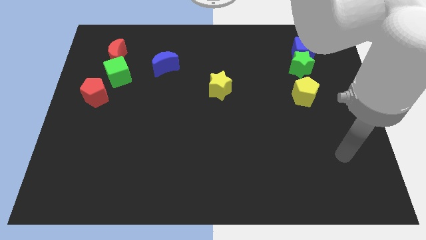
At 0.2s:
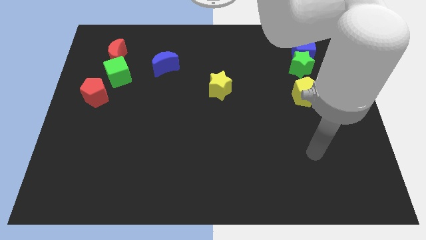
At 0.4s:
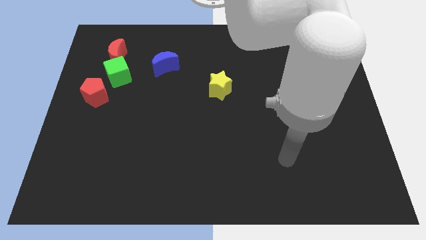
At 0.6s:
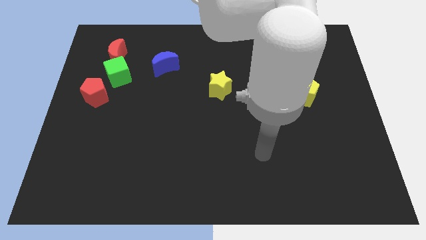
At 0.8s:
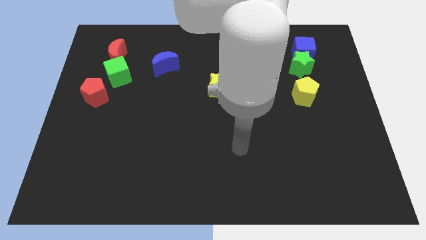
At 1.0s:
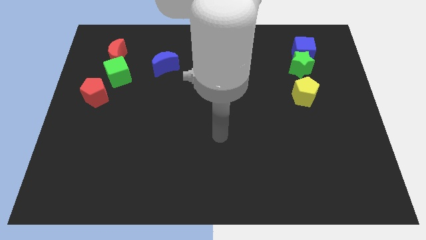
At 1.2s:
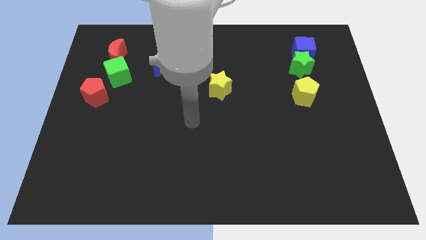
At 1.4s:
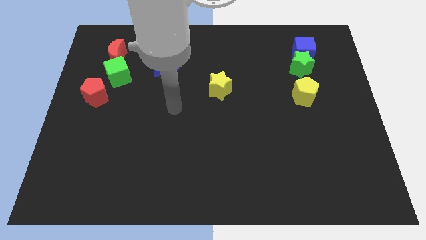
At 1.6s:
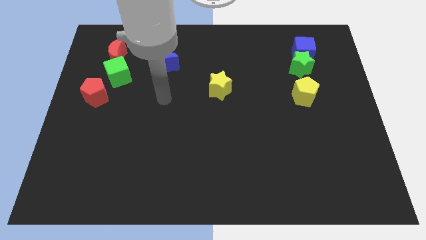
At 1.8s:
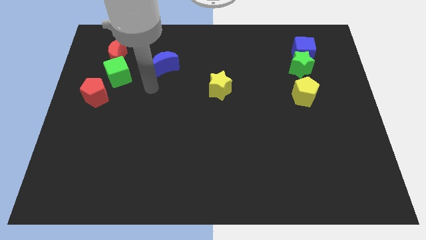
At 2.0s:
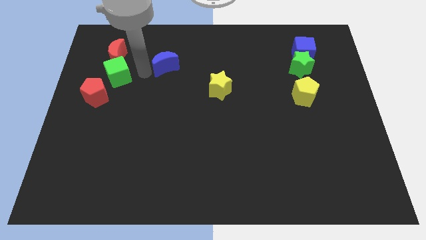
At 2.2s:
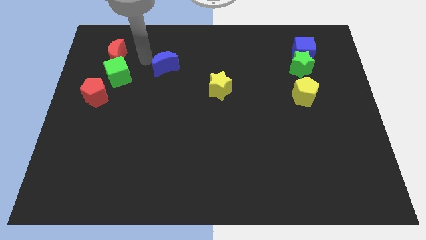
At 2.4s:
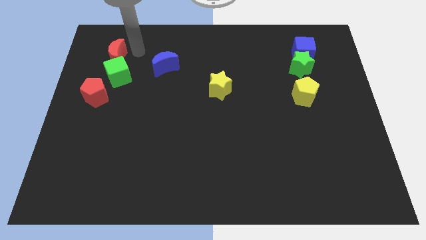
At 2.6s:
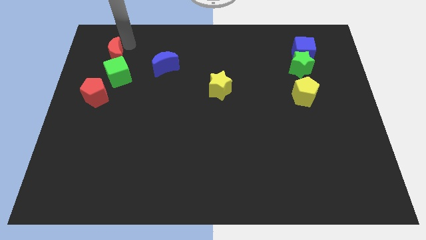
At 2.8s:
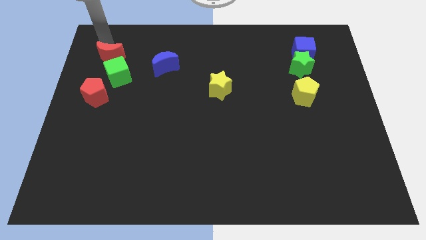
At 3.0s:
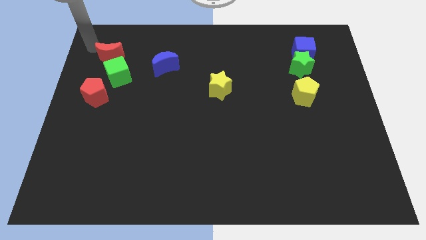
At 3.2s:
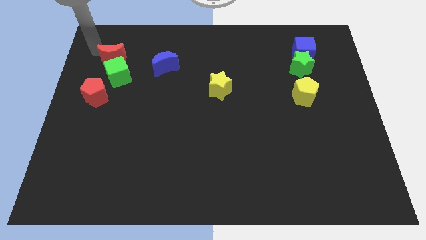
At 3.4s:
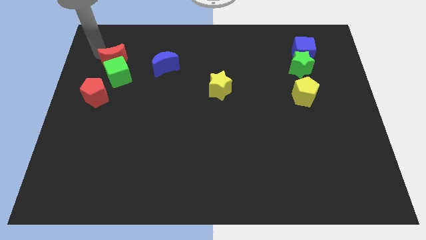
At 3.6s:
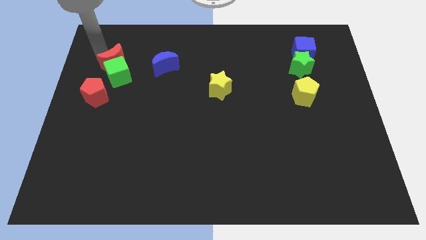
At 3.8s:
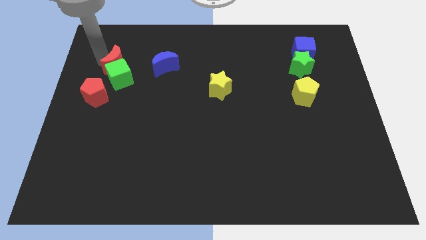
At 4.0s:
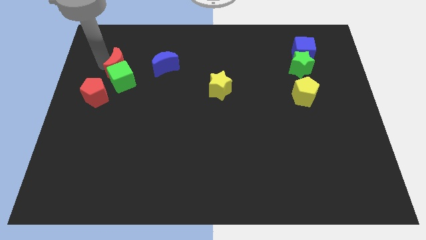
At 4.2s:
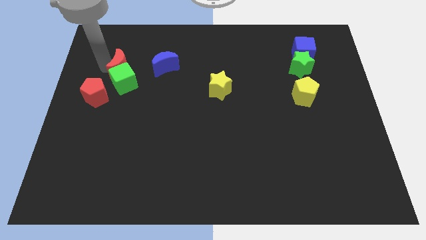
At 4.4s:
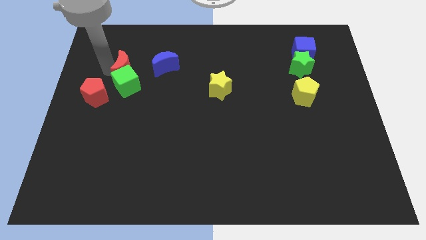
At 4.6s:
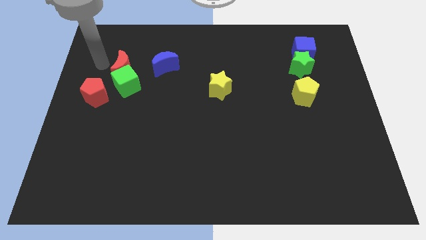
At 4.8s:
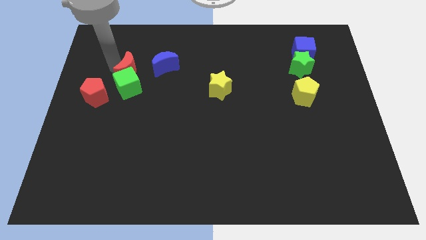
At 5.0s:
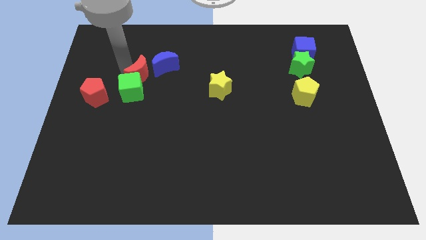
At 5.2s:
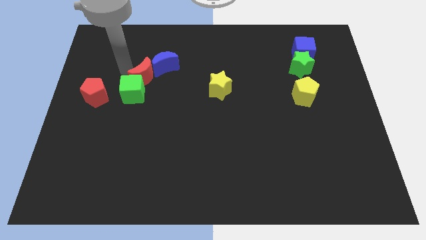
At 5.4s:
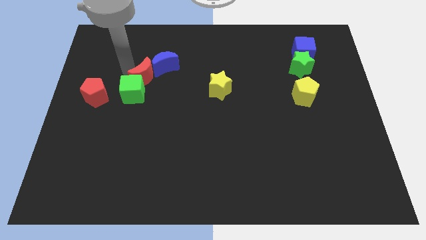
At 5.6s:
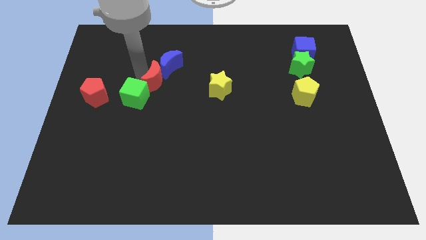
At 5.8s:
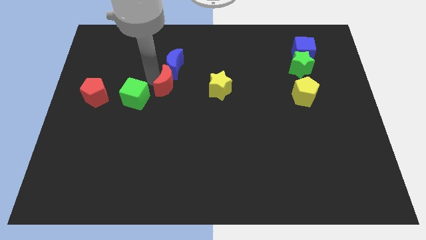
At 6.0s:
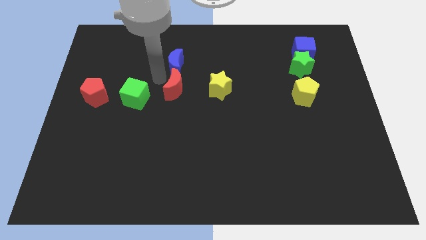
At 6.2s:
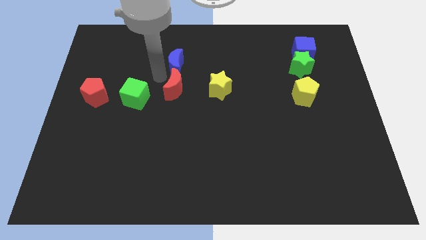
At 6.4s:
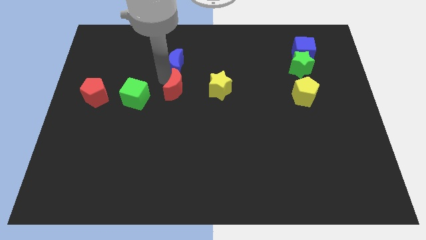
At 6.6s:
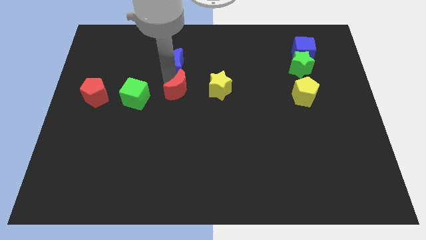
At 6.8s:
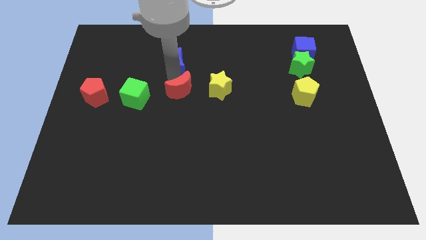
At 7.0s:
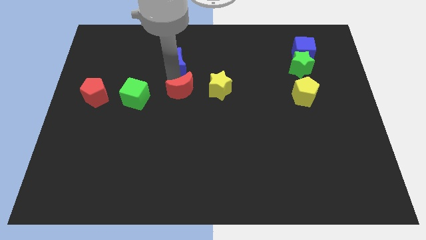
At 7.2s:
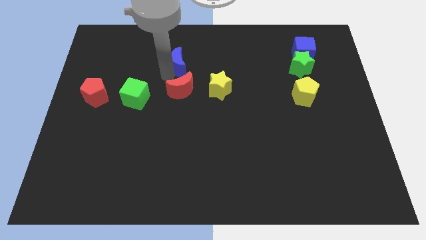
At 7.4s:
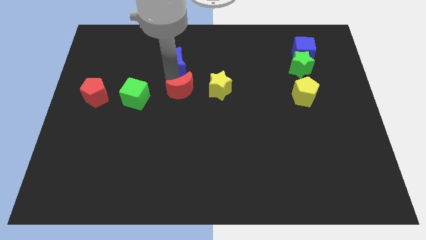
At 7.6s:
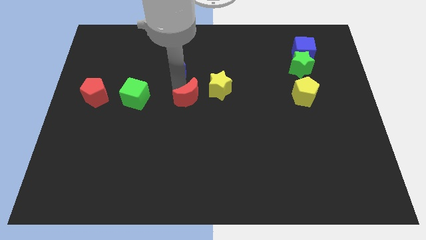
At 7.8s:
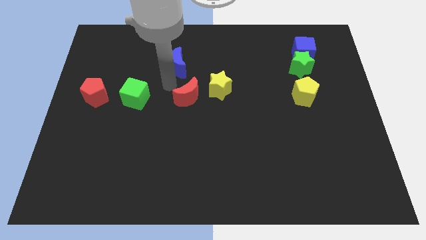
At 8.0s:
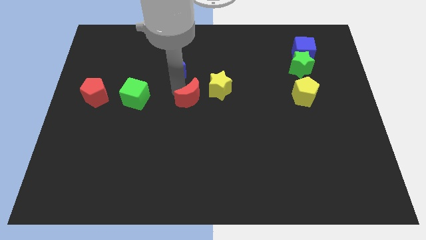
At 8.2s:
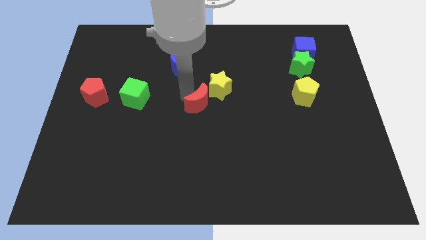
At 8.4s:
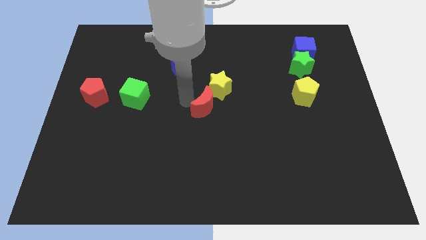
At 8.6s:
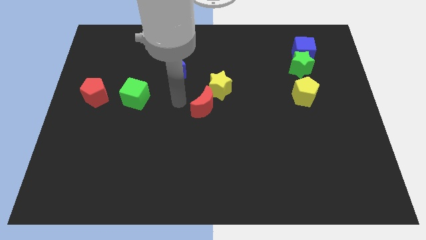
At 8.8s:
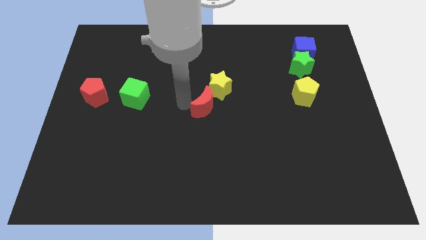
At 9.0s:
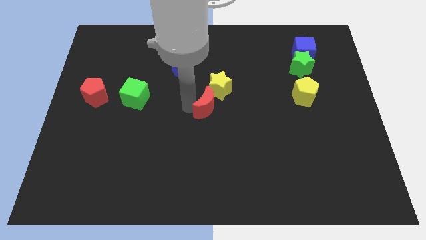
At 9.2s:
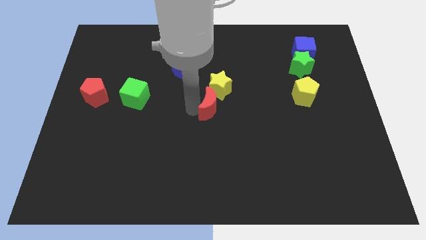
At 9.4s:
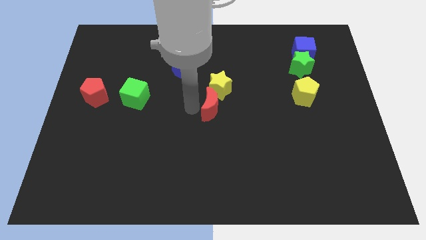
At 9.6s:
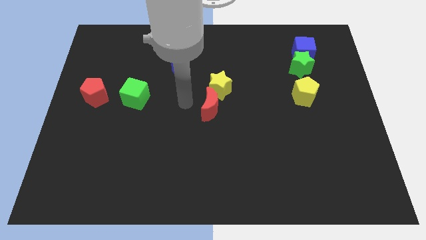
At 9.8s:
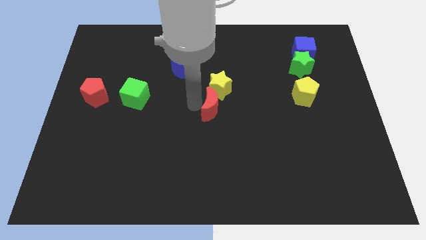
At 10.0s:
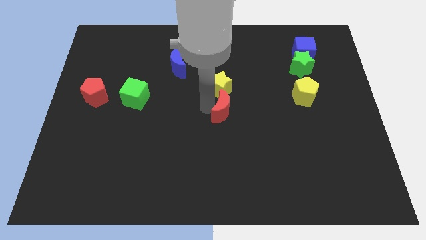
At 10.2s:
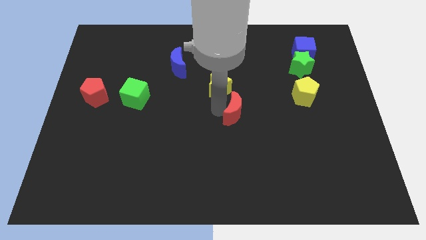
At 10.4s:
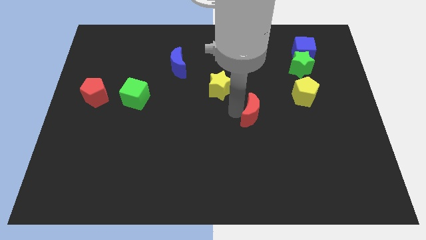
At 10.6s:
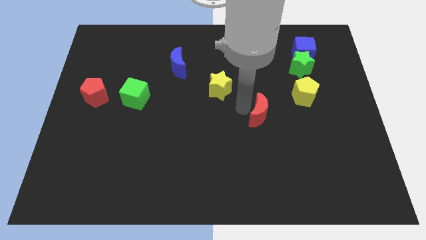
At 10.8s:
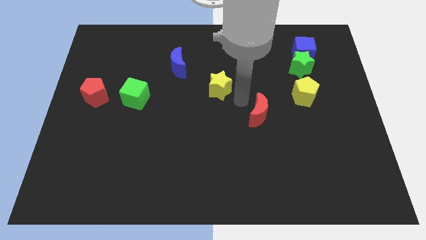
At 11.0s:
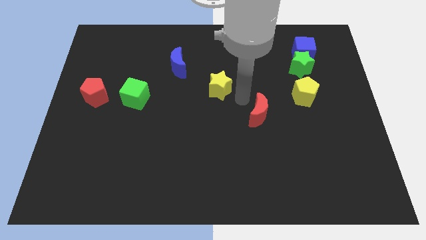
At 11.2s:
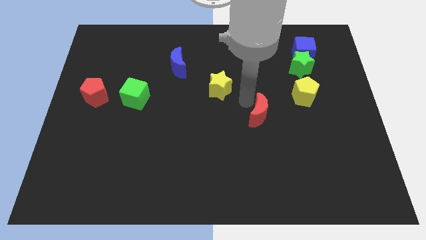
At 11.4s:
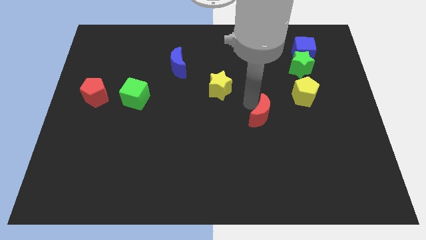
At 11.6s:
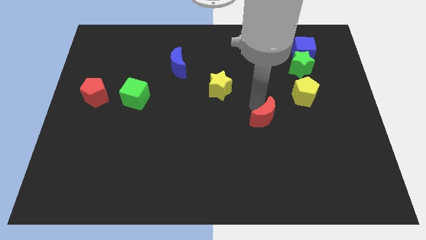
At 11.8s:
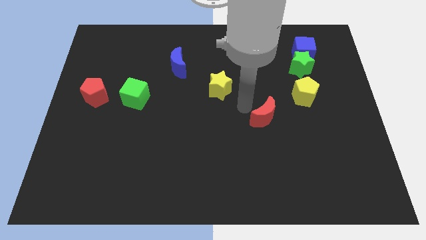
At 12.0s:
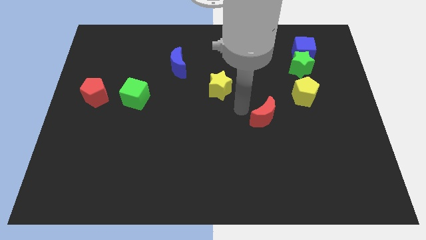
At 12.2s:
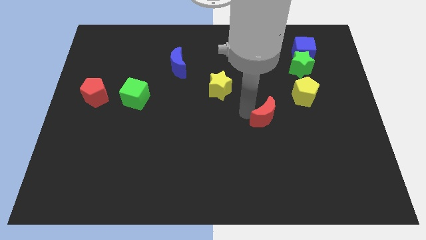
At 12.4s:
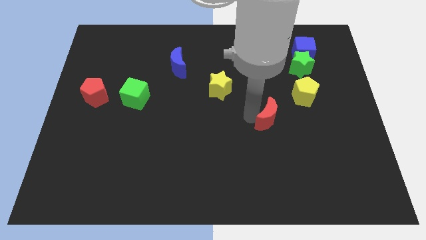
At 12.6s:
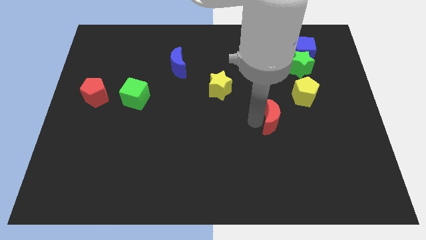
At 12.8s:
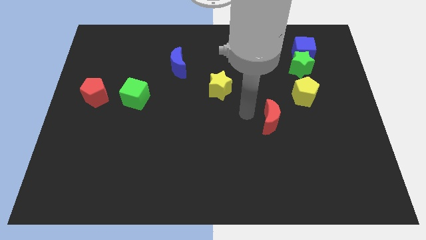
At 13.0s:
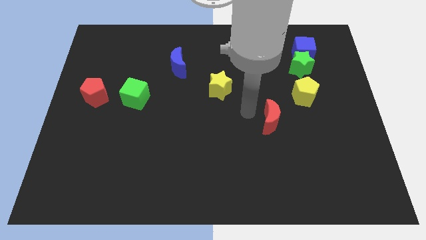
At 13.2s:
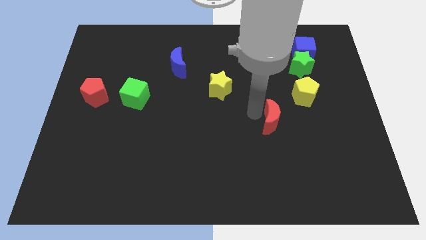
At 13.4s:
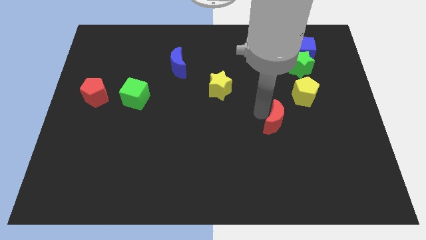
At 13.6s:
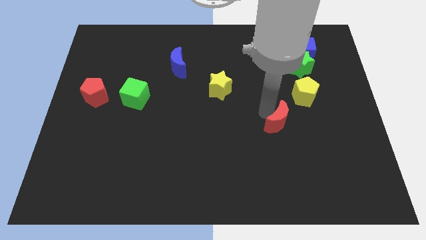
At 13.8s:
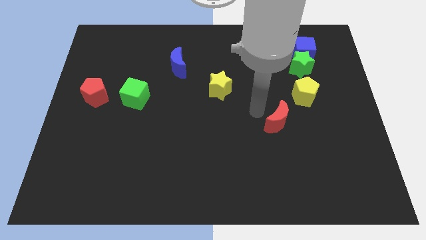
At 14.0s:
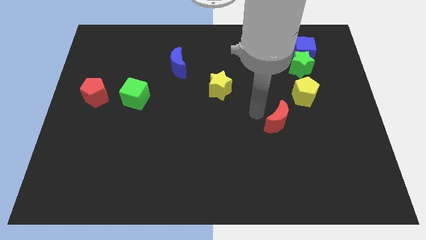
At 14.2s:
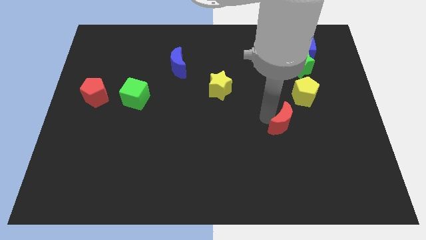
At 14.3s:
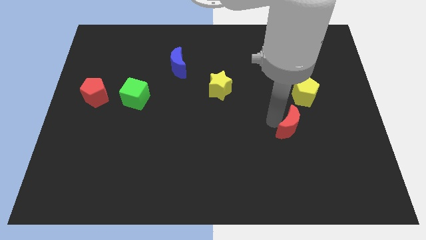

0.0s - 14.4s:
slide the red moon to the bottom side of the yellow pentagon
